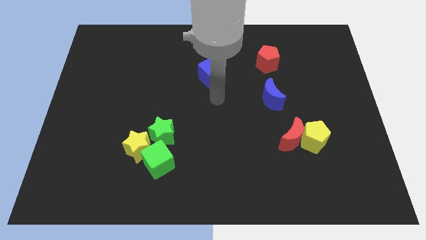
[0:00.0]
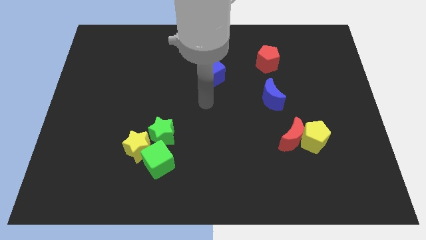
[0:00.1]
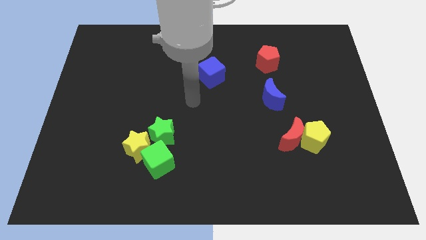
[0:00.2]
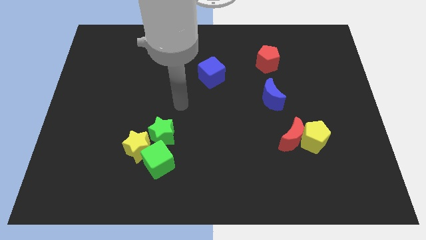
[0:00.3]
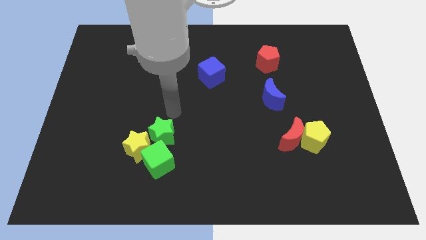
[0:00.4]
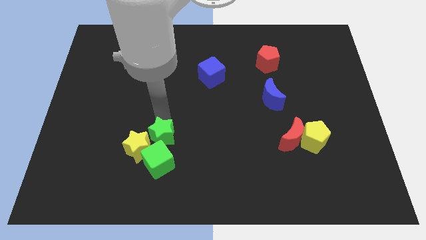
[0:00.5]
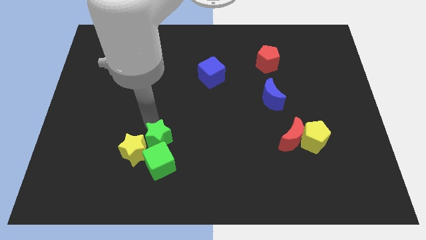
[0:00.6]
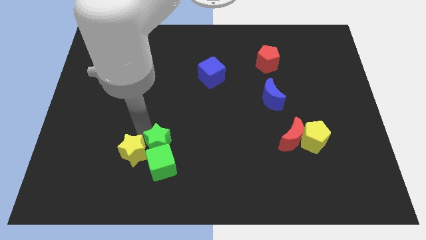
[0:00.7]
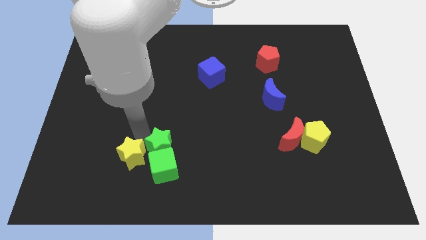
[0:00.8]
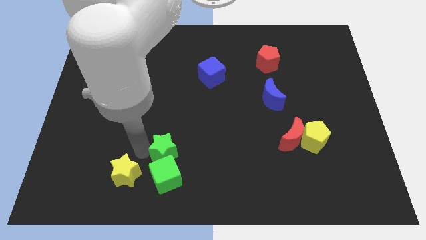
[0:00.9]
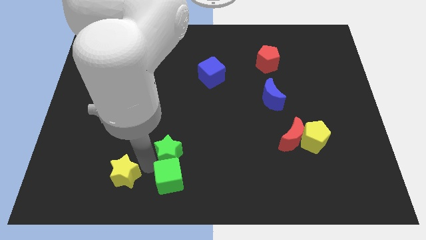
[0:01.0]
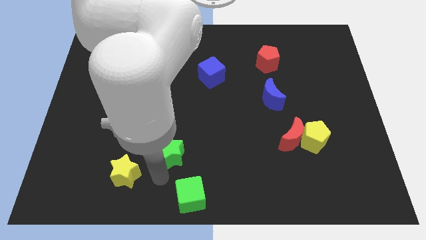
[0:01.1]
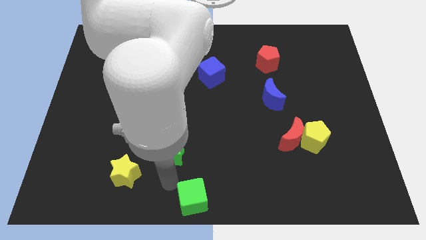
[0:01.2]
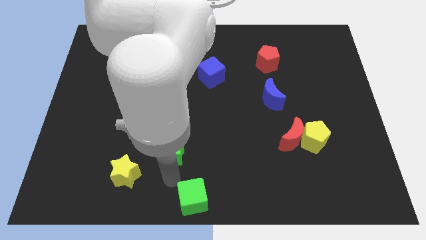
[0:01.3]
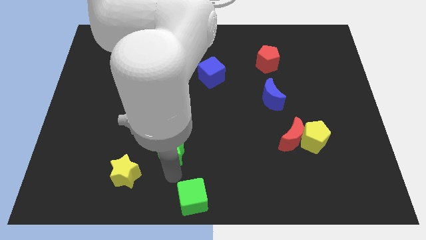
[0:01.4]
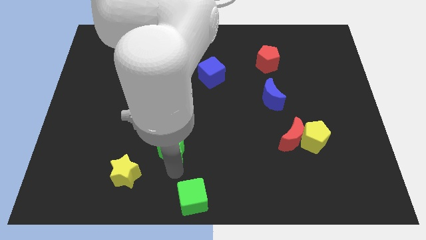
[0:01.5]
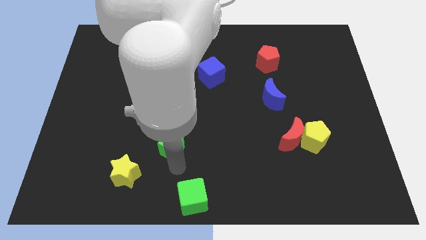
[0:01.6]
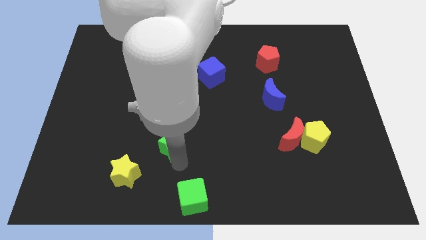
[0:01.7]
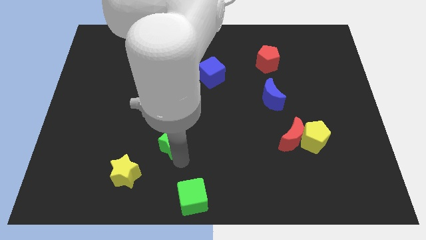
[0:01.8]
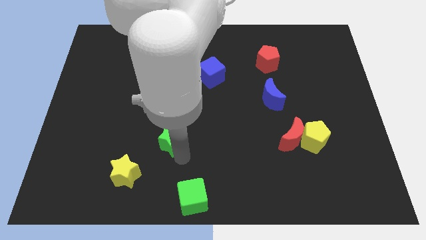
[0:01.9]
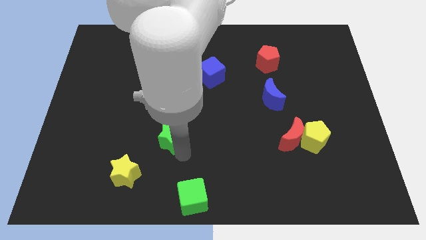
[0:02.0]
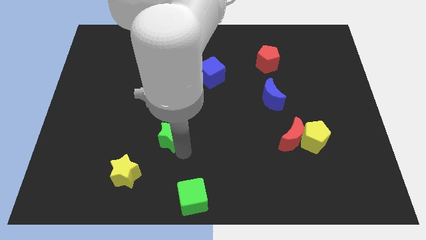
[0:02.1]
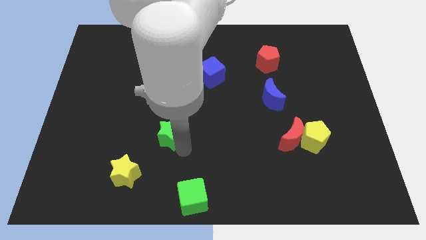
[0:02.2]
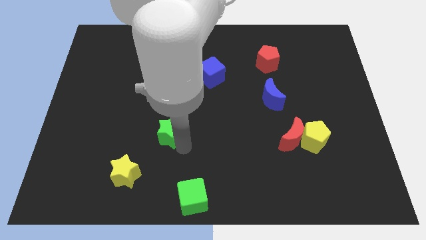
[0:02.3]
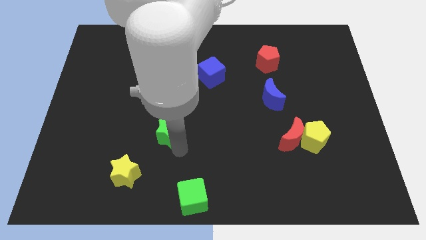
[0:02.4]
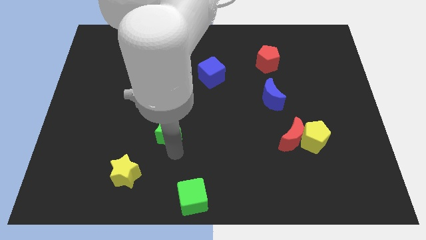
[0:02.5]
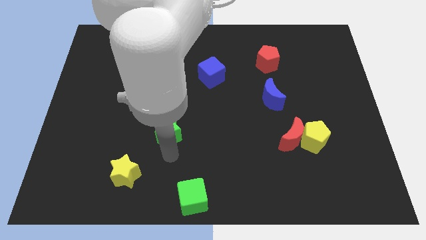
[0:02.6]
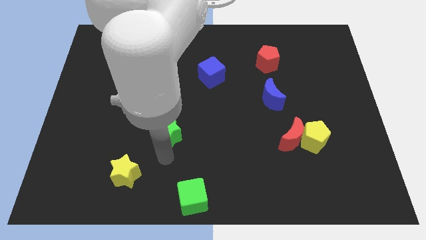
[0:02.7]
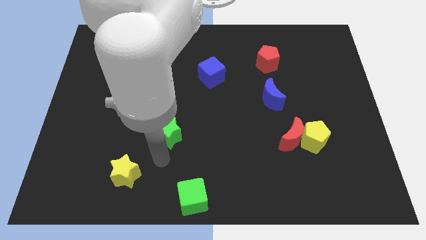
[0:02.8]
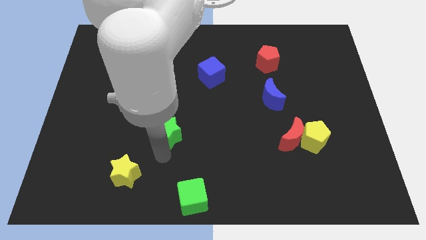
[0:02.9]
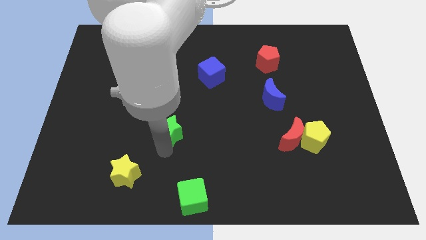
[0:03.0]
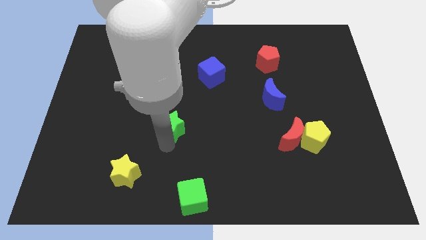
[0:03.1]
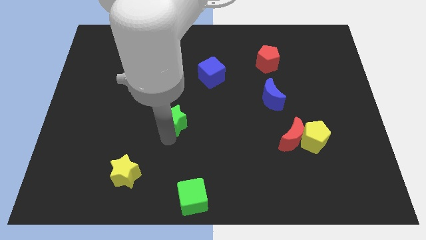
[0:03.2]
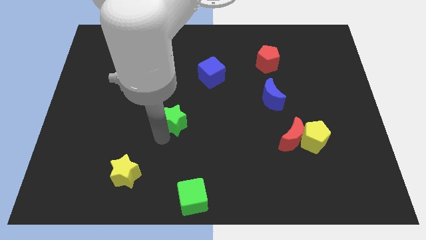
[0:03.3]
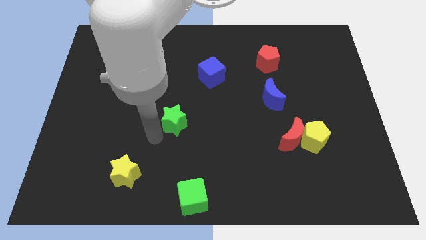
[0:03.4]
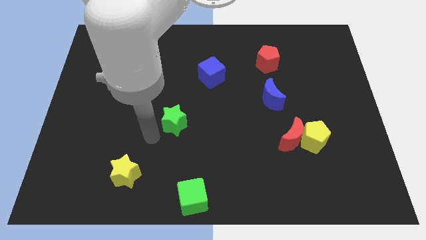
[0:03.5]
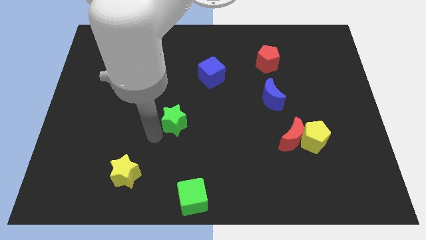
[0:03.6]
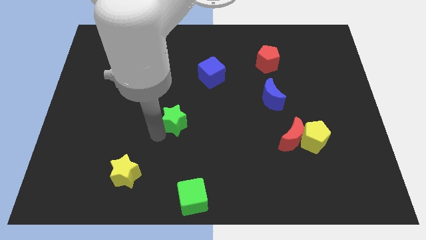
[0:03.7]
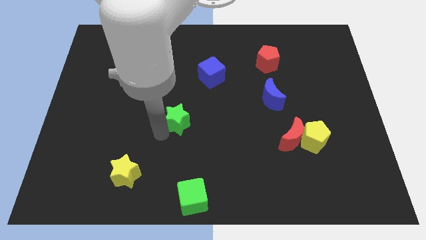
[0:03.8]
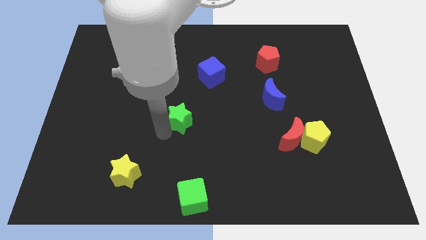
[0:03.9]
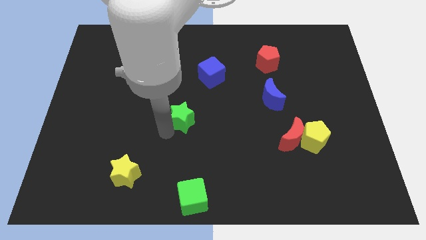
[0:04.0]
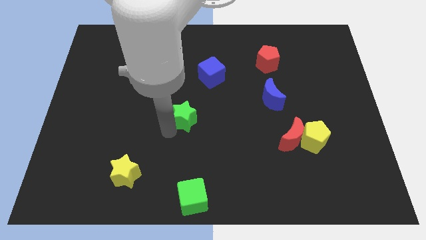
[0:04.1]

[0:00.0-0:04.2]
push the green star slightly diagonally up and to the right

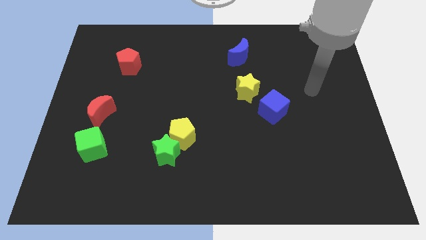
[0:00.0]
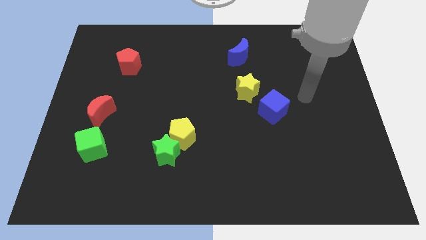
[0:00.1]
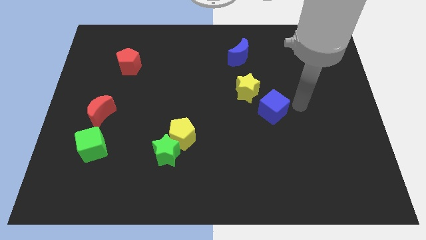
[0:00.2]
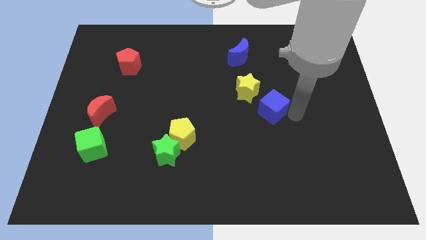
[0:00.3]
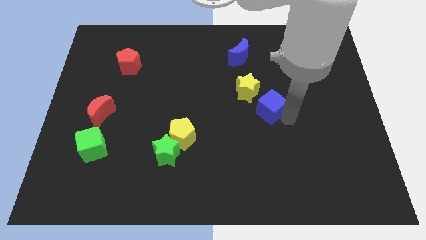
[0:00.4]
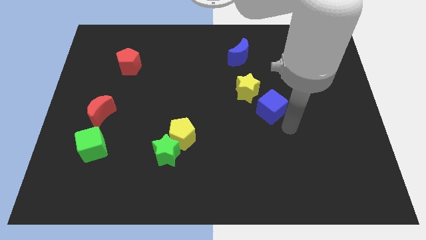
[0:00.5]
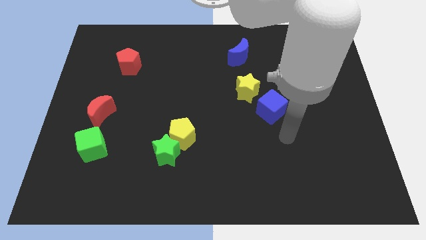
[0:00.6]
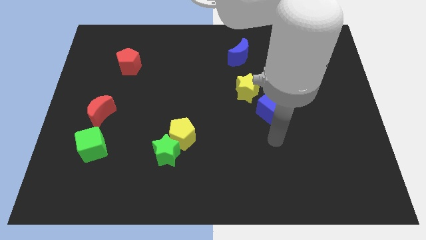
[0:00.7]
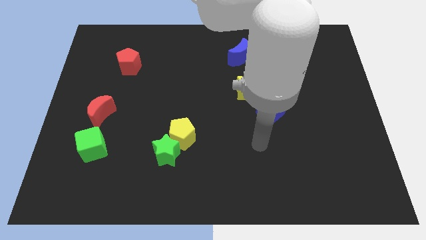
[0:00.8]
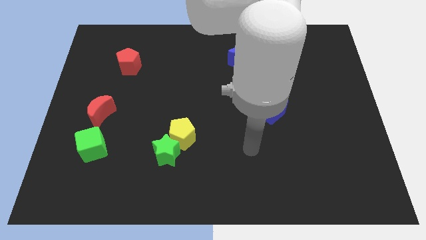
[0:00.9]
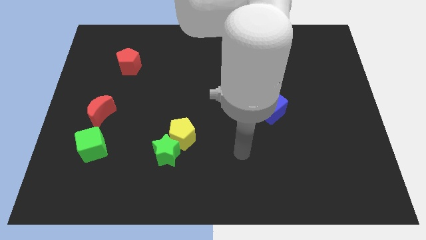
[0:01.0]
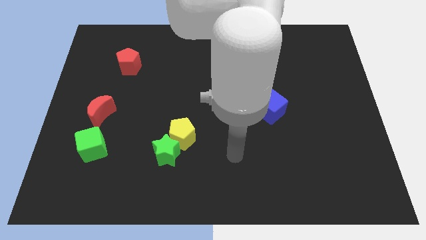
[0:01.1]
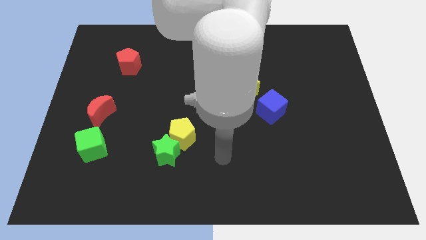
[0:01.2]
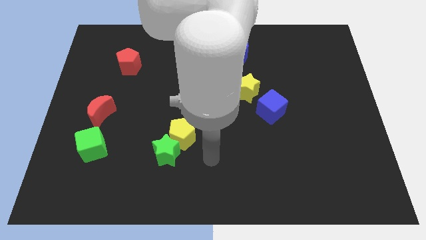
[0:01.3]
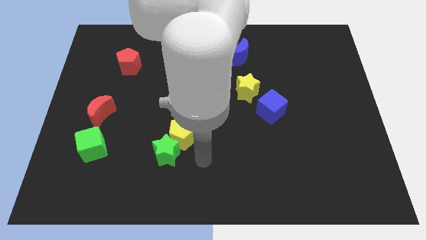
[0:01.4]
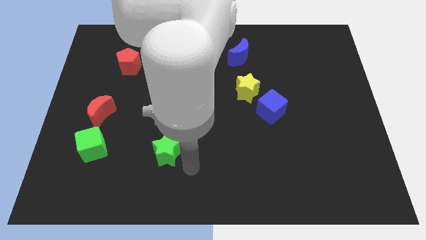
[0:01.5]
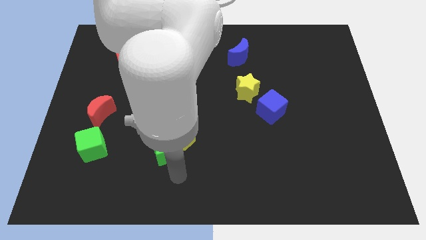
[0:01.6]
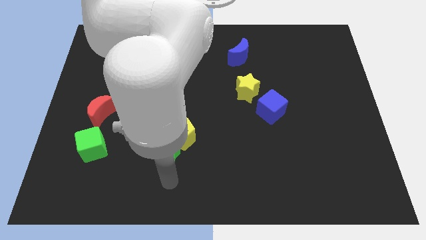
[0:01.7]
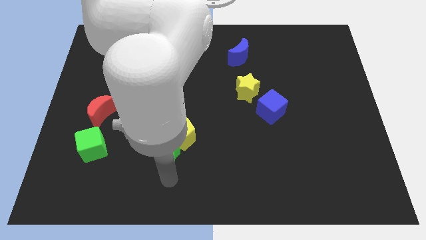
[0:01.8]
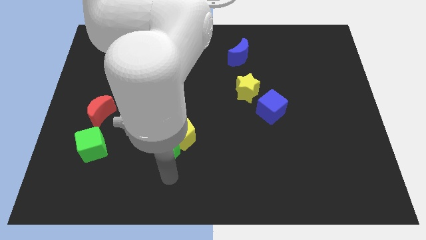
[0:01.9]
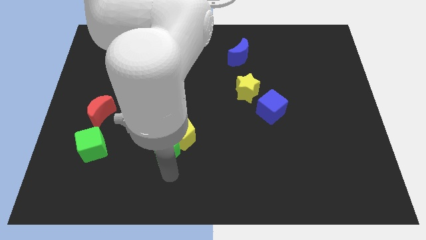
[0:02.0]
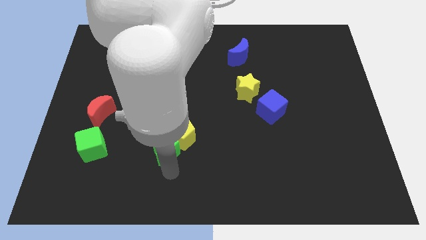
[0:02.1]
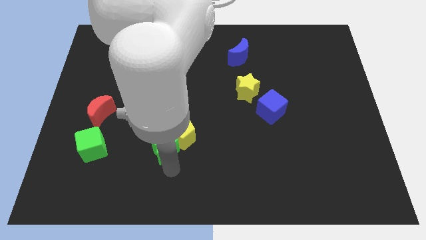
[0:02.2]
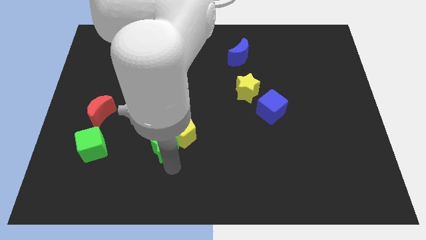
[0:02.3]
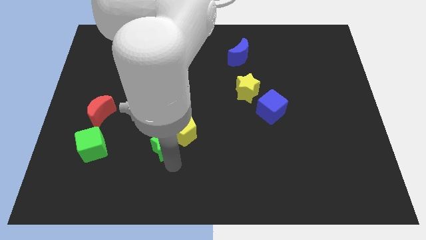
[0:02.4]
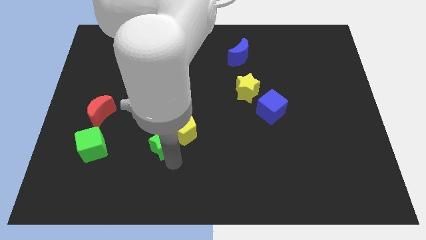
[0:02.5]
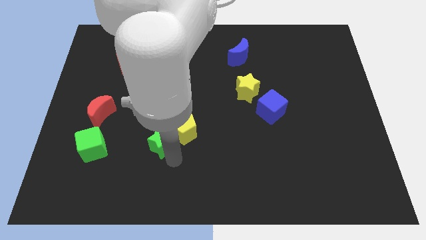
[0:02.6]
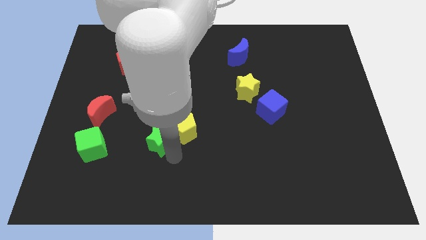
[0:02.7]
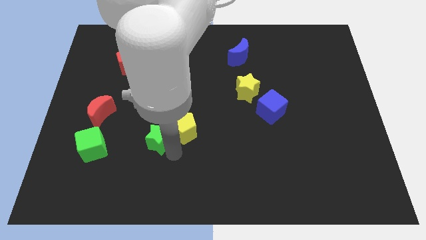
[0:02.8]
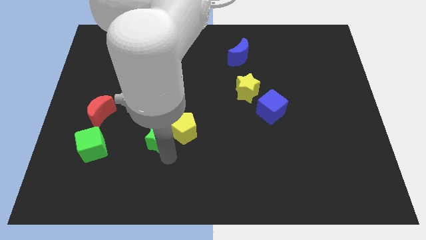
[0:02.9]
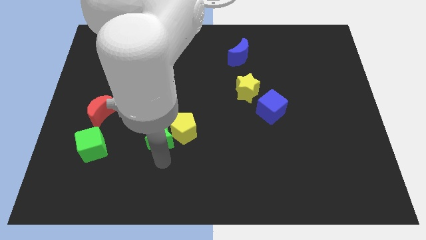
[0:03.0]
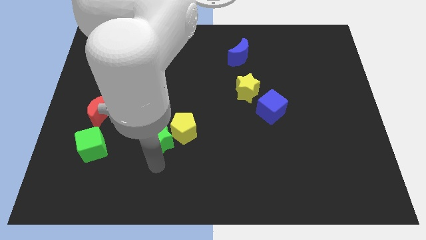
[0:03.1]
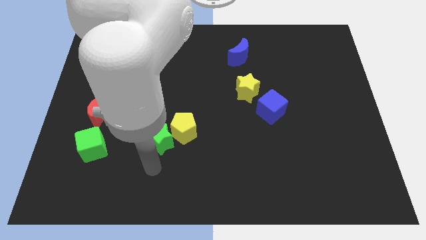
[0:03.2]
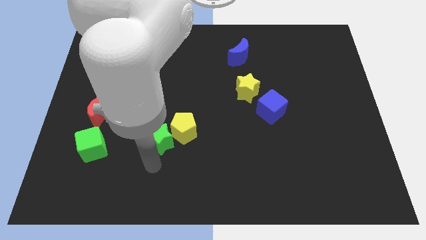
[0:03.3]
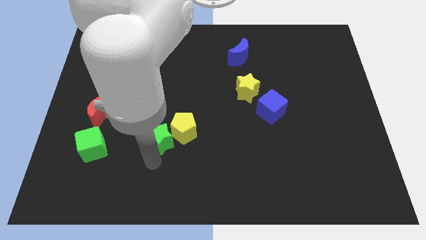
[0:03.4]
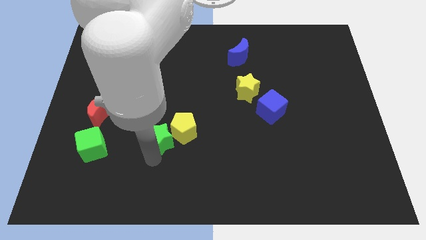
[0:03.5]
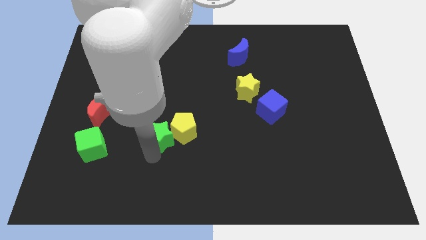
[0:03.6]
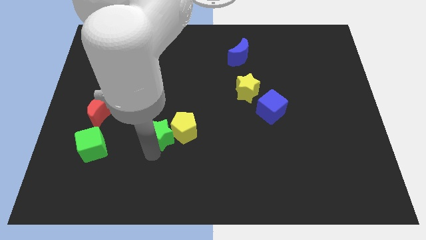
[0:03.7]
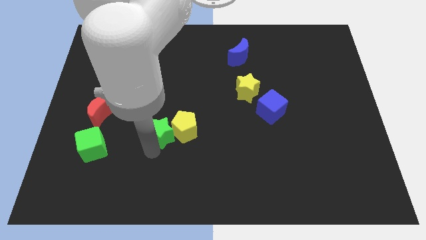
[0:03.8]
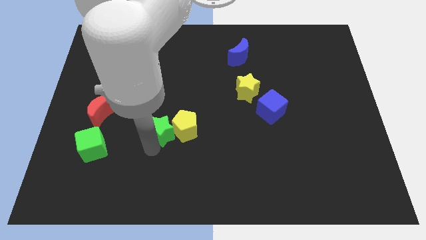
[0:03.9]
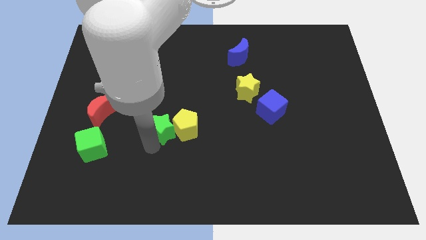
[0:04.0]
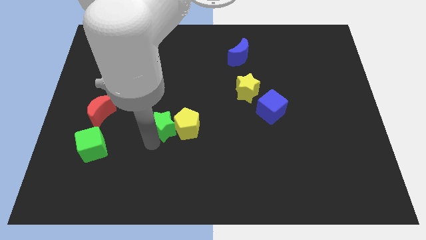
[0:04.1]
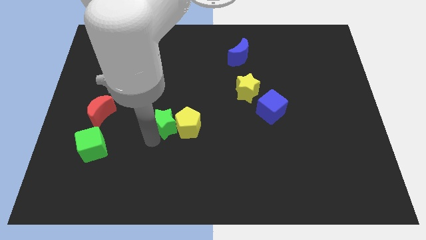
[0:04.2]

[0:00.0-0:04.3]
push the green star a little bit up
